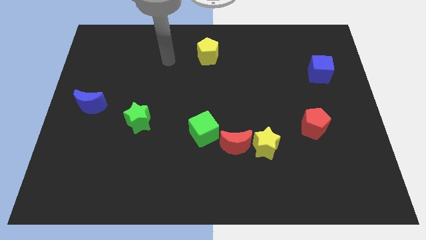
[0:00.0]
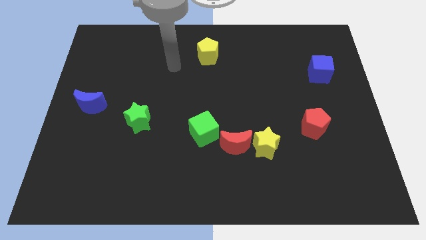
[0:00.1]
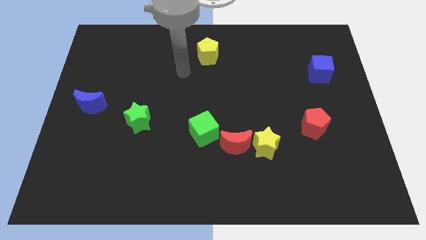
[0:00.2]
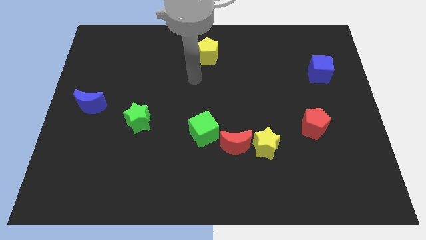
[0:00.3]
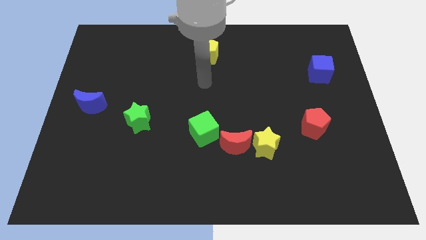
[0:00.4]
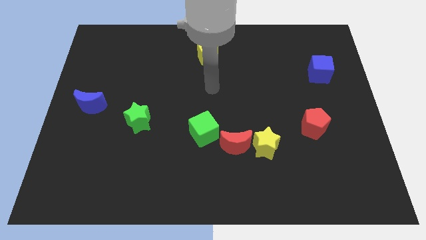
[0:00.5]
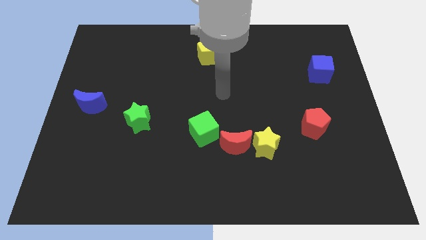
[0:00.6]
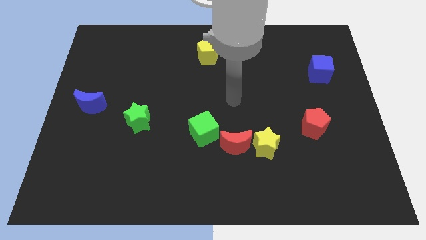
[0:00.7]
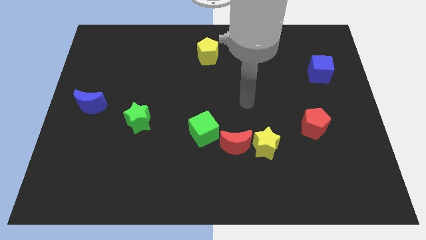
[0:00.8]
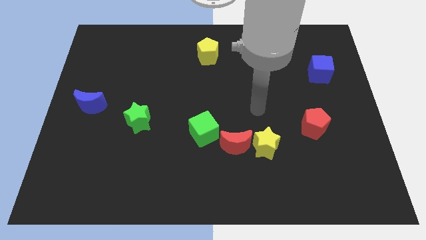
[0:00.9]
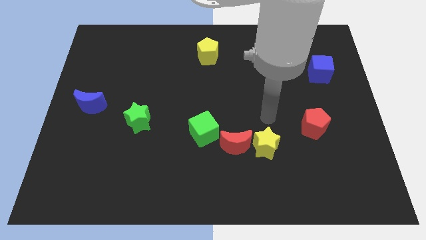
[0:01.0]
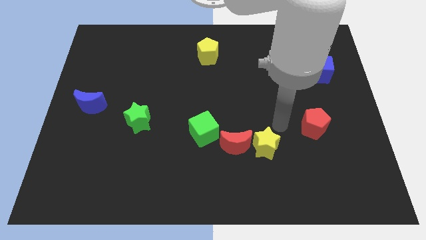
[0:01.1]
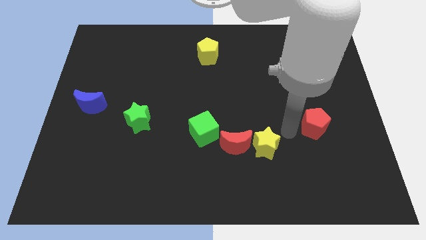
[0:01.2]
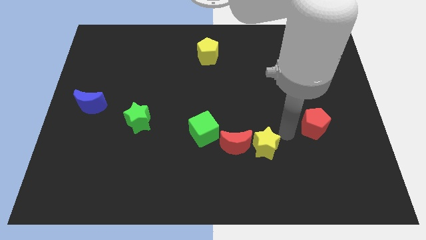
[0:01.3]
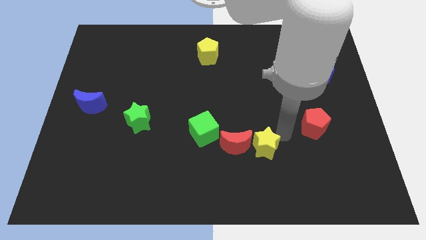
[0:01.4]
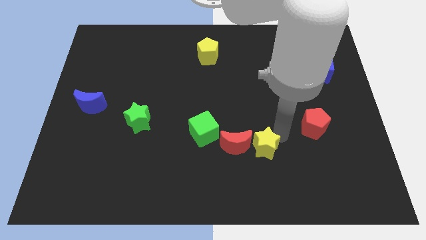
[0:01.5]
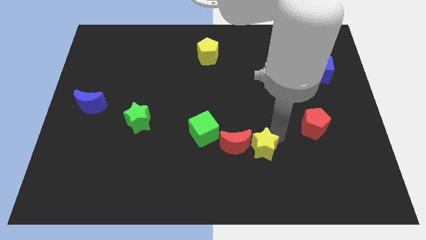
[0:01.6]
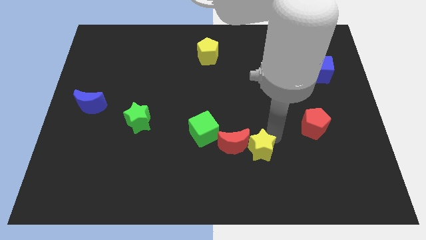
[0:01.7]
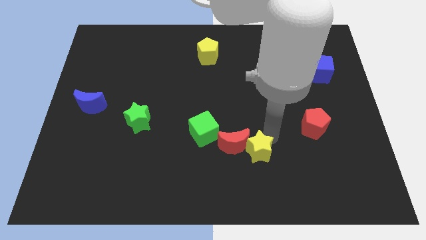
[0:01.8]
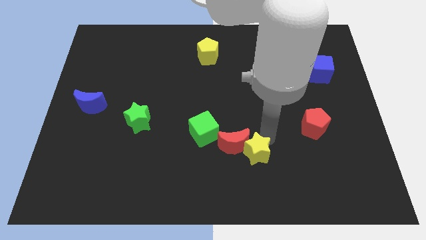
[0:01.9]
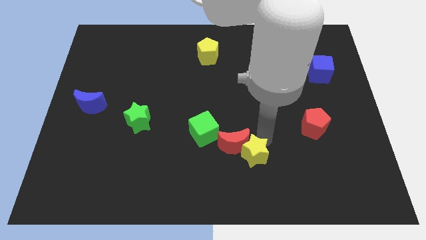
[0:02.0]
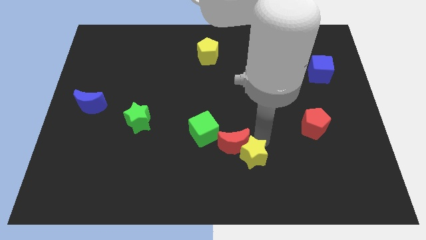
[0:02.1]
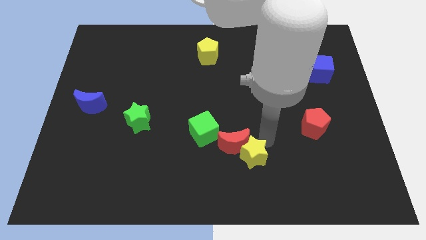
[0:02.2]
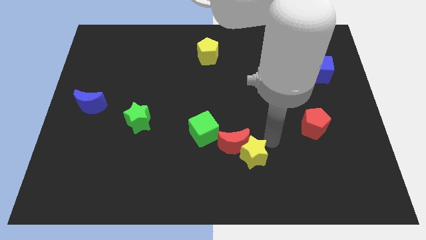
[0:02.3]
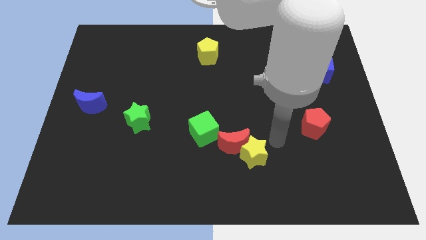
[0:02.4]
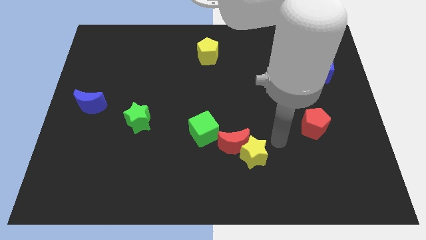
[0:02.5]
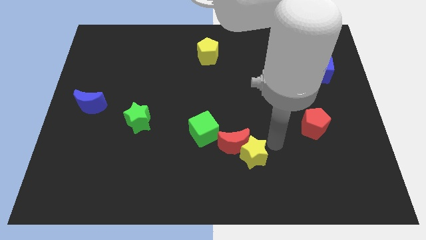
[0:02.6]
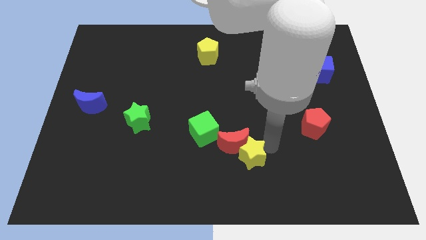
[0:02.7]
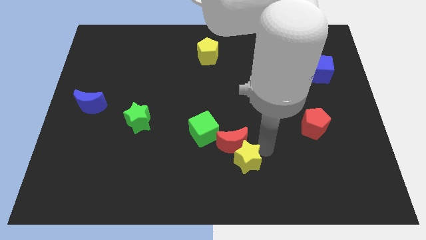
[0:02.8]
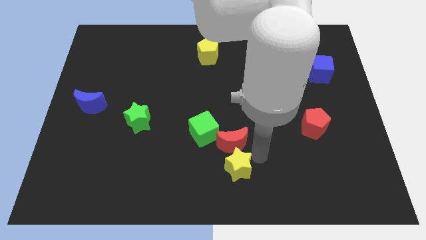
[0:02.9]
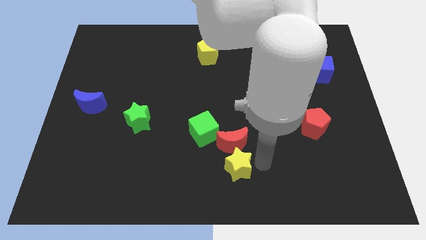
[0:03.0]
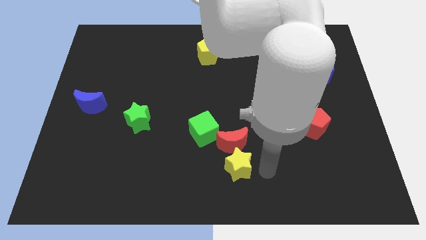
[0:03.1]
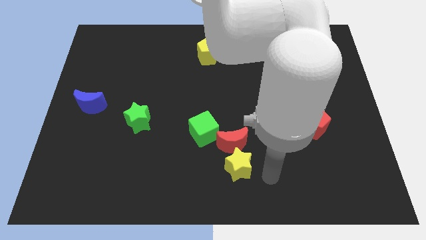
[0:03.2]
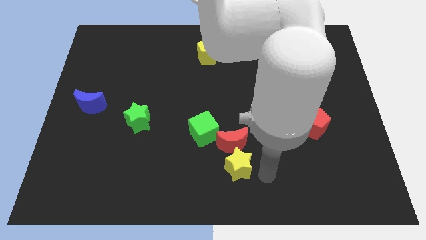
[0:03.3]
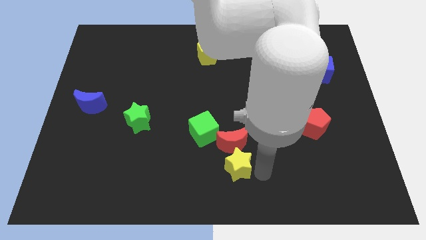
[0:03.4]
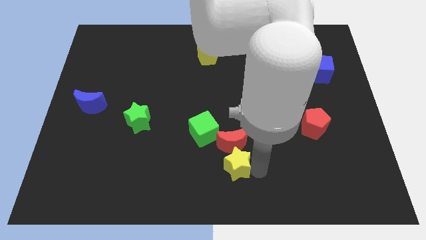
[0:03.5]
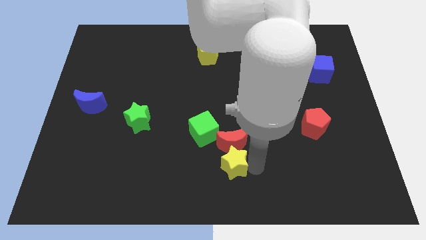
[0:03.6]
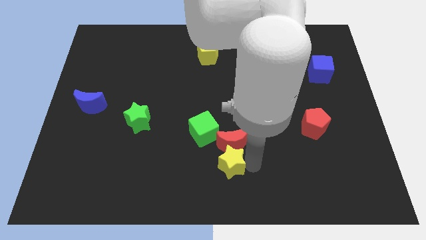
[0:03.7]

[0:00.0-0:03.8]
move the yellow star to the left a little bit

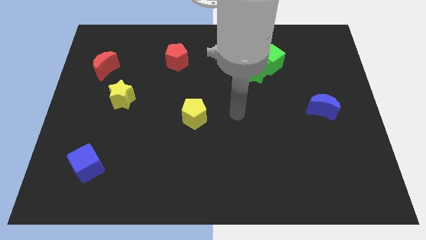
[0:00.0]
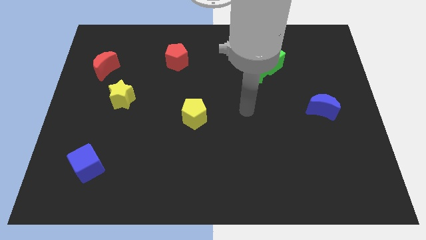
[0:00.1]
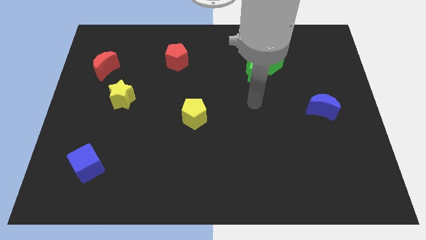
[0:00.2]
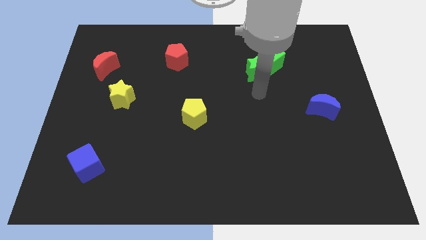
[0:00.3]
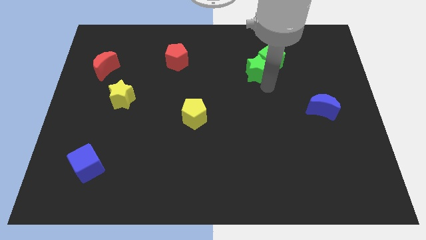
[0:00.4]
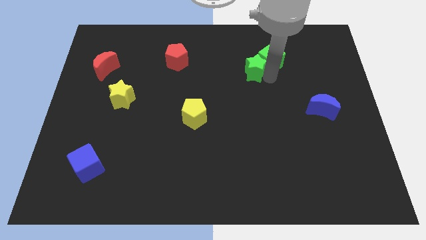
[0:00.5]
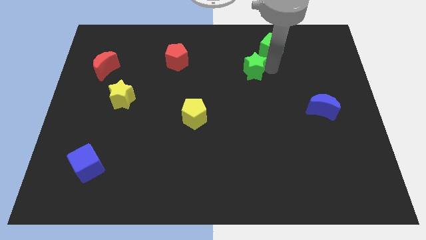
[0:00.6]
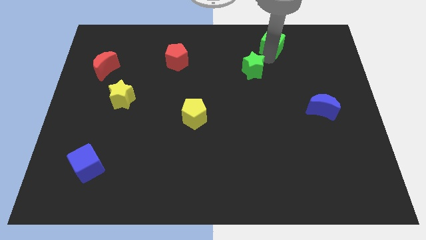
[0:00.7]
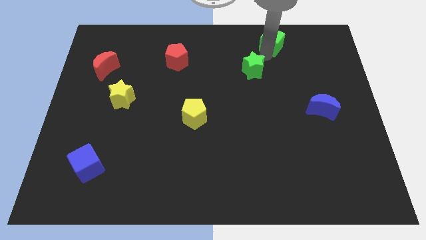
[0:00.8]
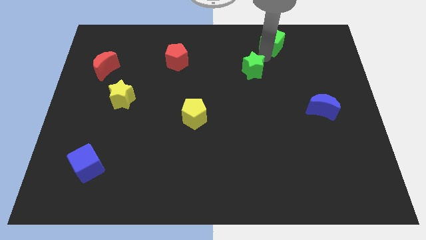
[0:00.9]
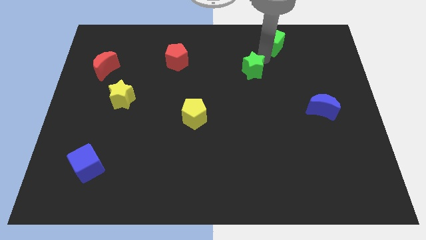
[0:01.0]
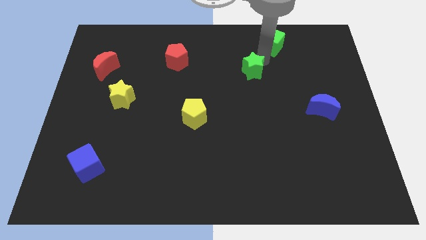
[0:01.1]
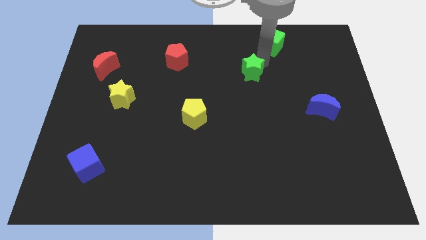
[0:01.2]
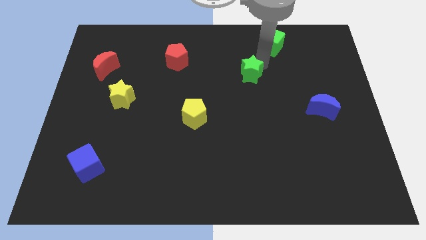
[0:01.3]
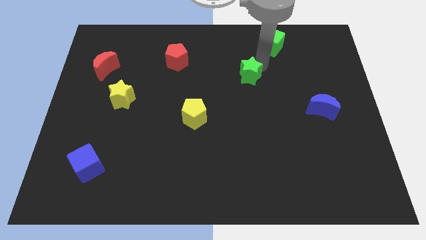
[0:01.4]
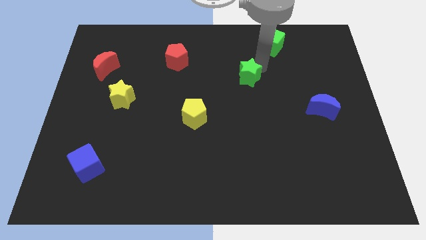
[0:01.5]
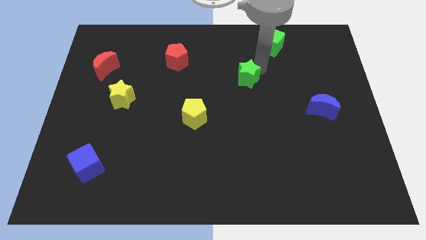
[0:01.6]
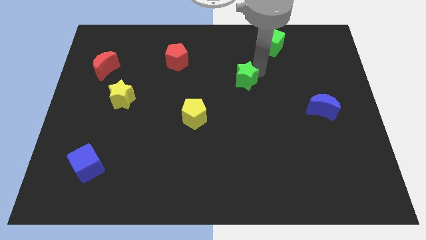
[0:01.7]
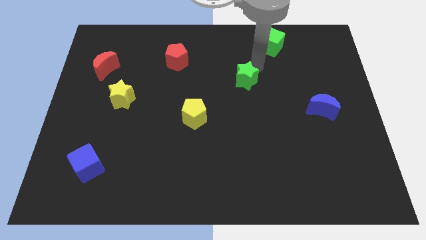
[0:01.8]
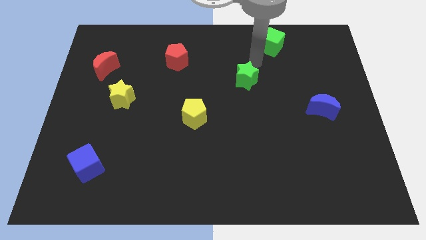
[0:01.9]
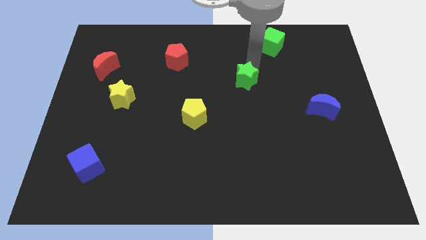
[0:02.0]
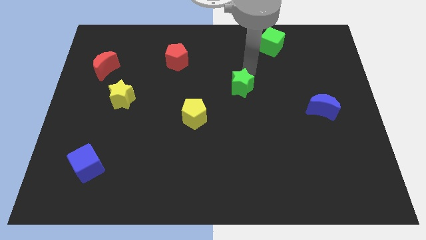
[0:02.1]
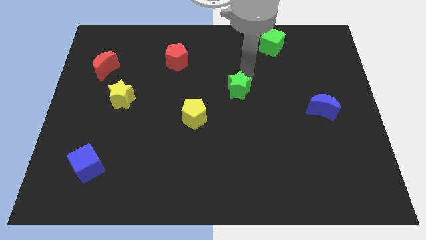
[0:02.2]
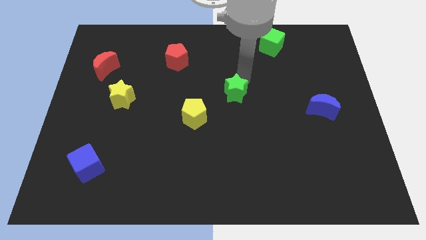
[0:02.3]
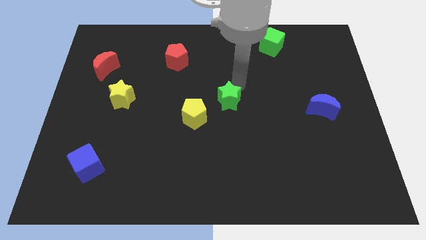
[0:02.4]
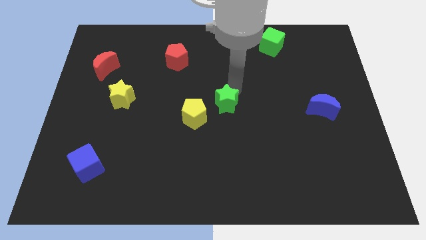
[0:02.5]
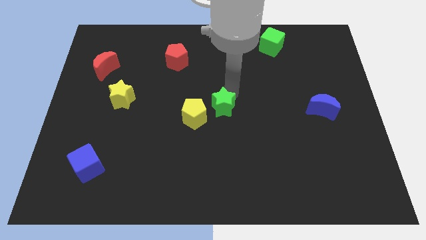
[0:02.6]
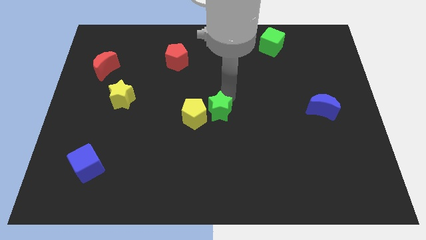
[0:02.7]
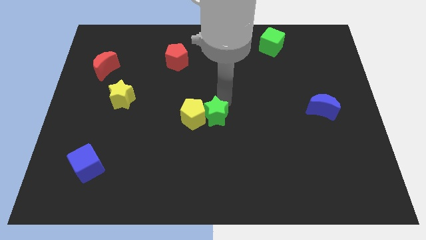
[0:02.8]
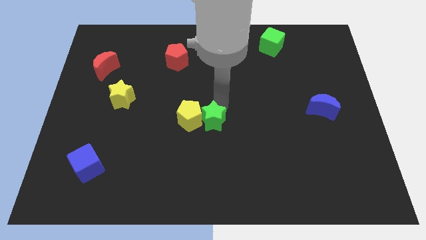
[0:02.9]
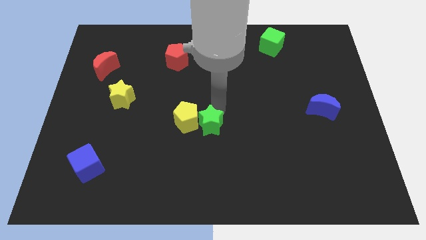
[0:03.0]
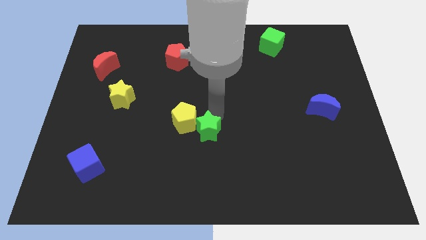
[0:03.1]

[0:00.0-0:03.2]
push the green star diagonally downwards and left

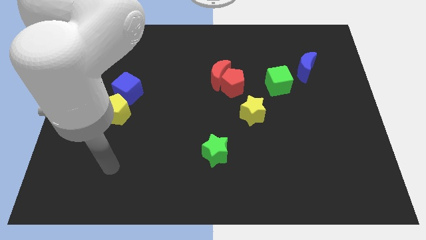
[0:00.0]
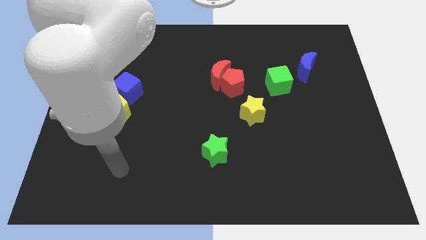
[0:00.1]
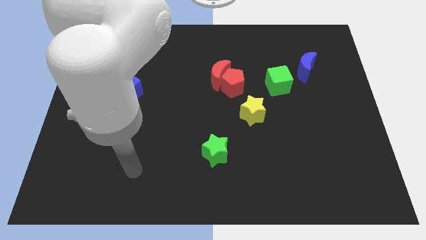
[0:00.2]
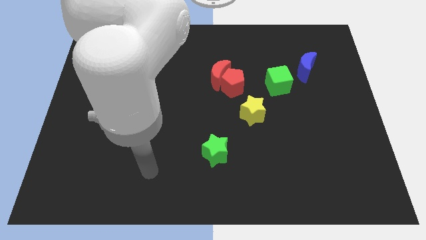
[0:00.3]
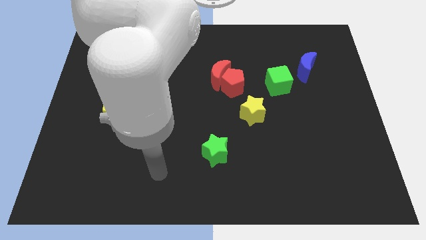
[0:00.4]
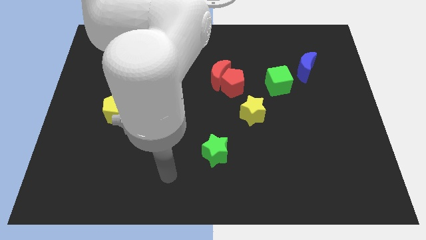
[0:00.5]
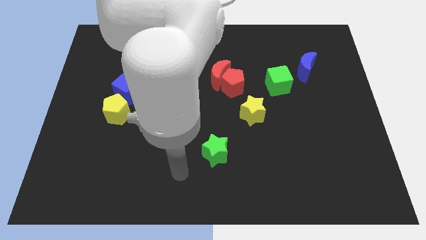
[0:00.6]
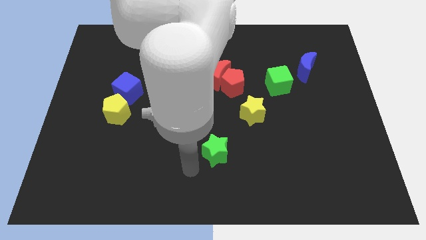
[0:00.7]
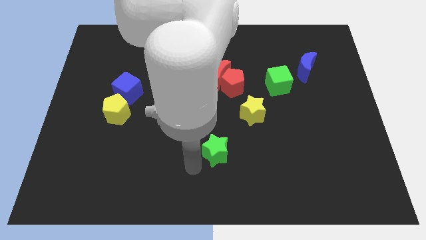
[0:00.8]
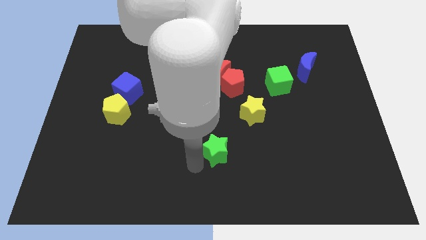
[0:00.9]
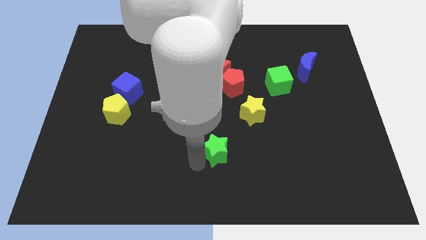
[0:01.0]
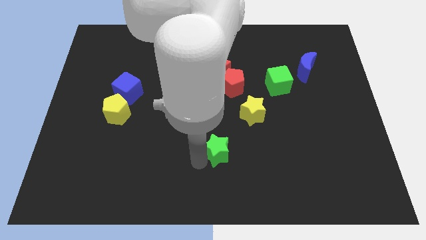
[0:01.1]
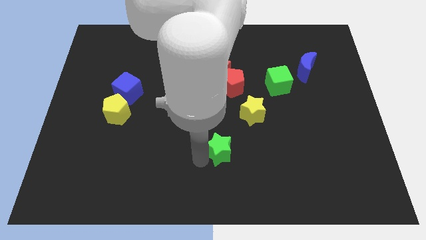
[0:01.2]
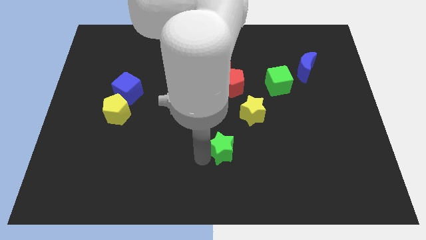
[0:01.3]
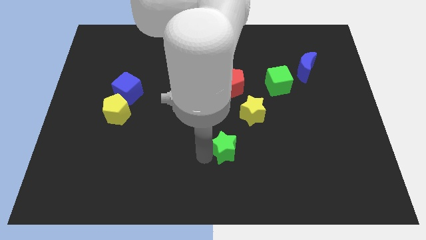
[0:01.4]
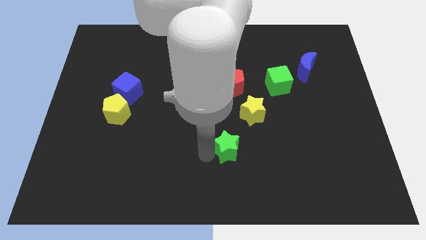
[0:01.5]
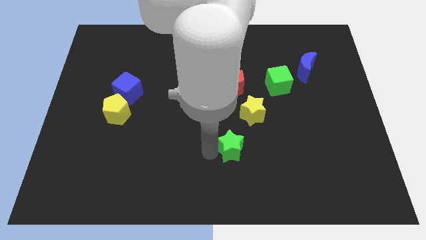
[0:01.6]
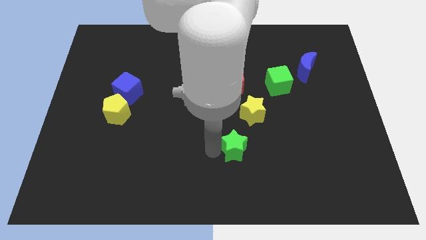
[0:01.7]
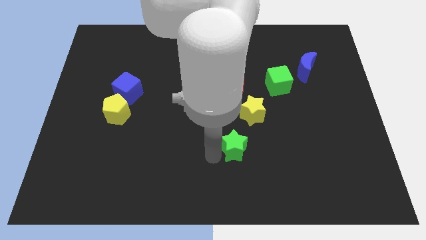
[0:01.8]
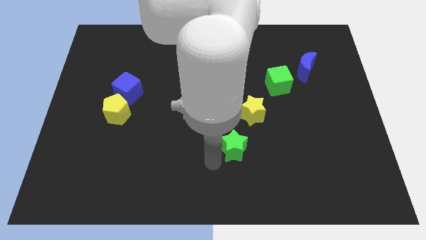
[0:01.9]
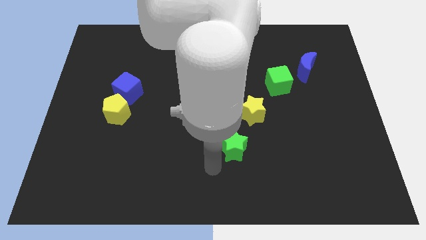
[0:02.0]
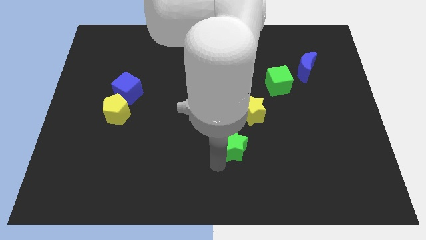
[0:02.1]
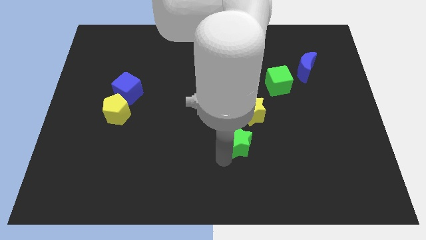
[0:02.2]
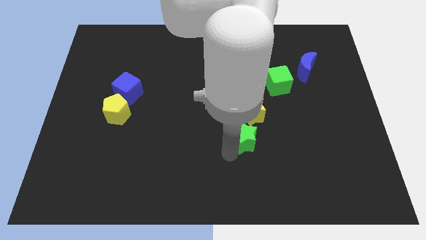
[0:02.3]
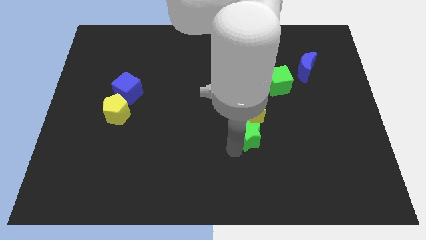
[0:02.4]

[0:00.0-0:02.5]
slightly move the green star up and to the right diagonally
